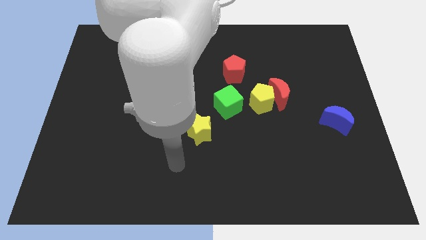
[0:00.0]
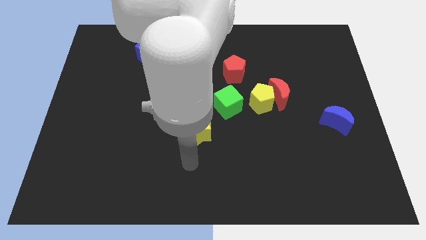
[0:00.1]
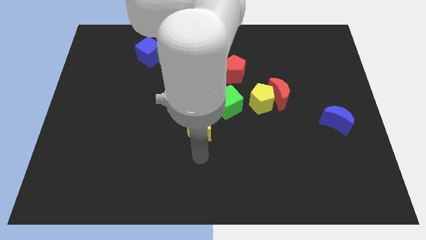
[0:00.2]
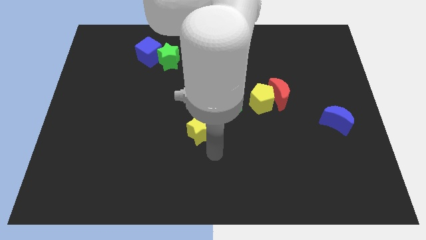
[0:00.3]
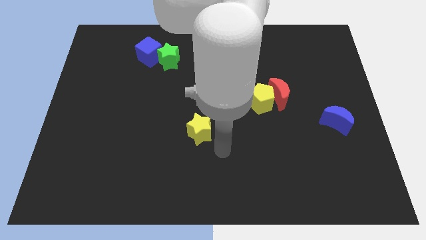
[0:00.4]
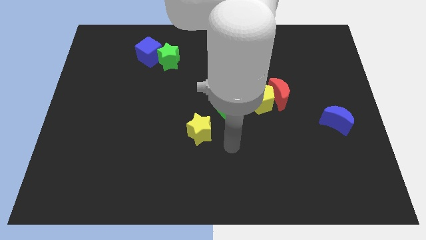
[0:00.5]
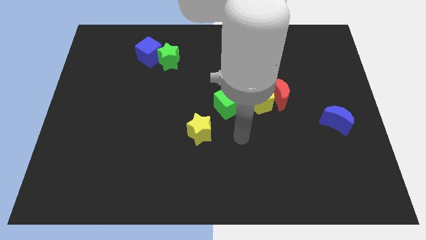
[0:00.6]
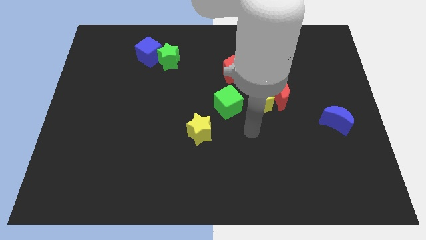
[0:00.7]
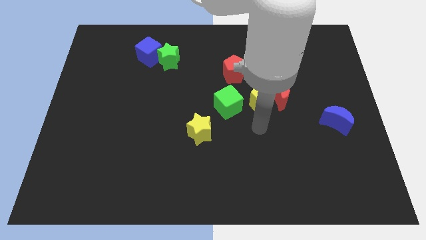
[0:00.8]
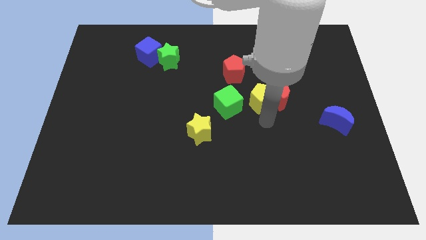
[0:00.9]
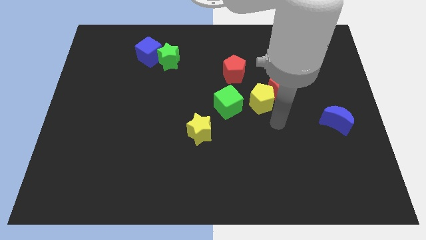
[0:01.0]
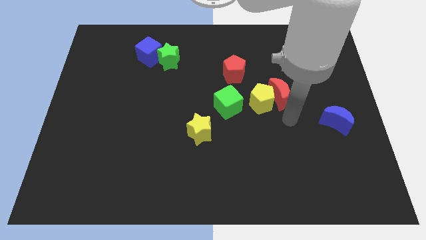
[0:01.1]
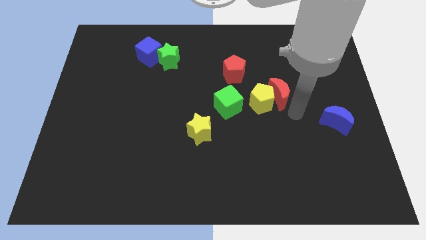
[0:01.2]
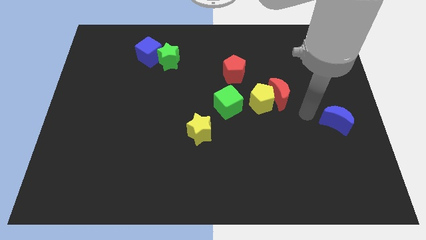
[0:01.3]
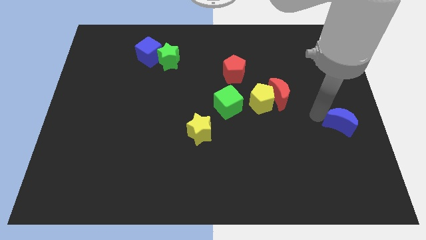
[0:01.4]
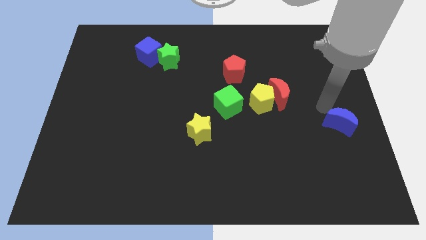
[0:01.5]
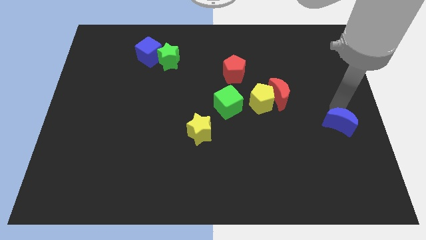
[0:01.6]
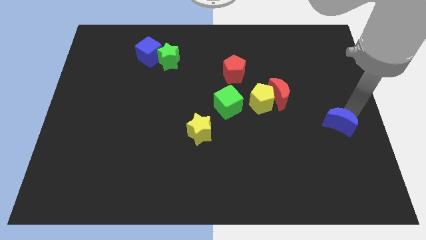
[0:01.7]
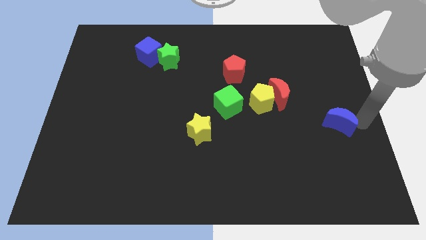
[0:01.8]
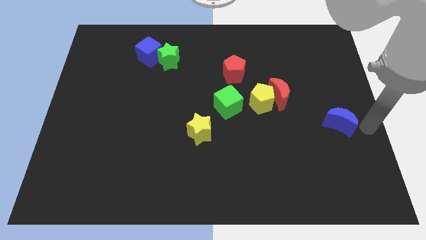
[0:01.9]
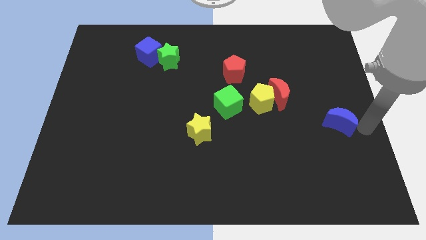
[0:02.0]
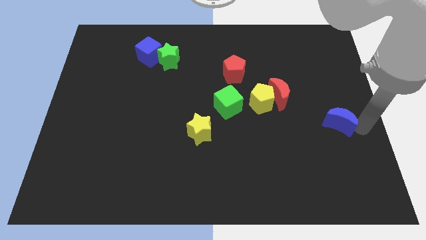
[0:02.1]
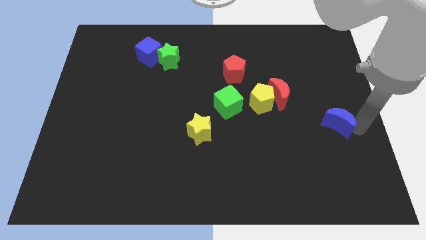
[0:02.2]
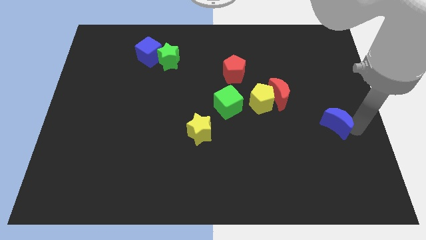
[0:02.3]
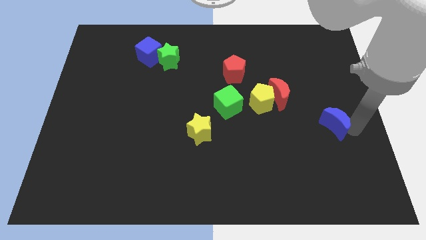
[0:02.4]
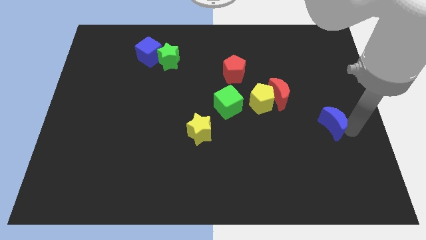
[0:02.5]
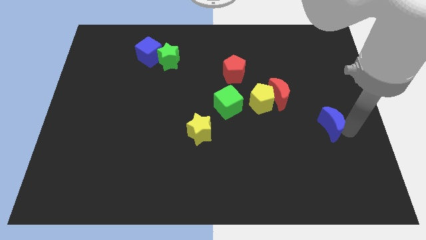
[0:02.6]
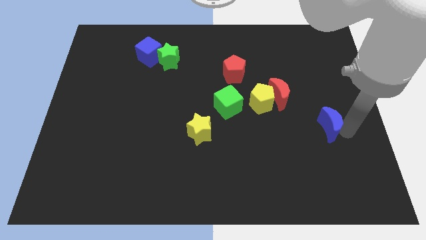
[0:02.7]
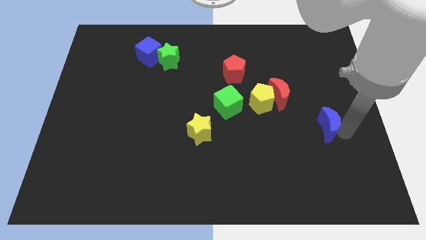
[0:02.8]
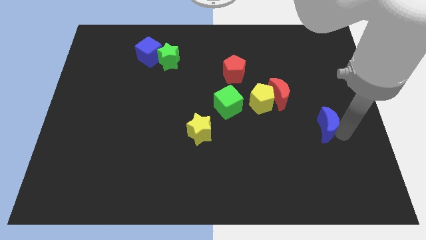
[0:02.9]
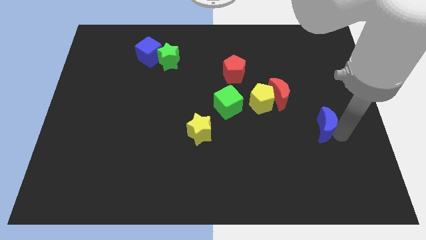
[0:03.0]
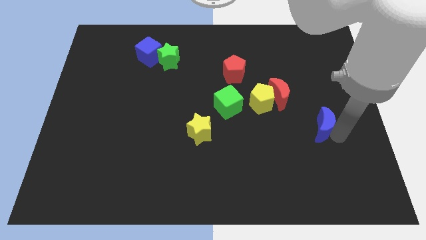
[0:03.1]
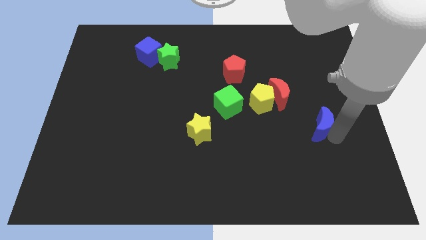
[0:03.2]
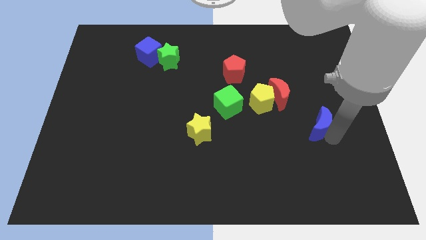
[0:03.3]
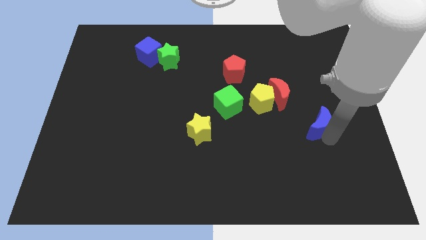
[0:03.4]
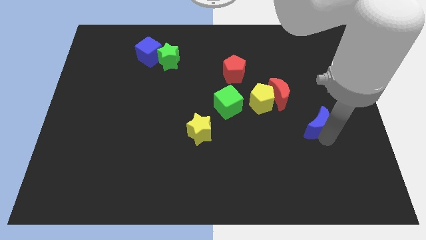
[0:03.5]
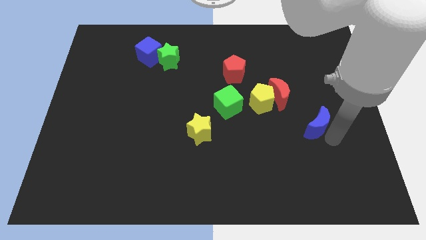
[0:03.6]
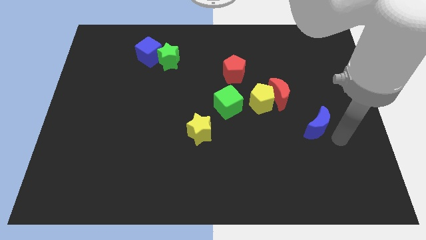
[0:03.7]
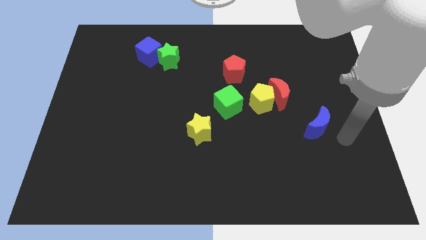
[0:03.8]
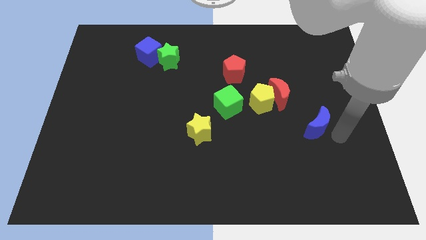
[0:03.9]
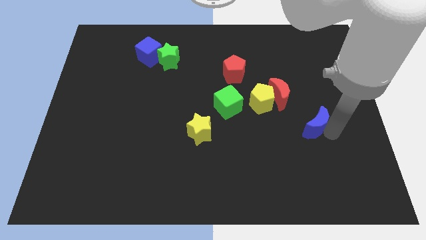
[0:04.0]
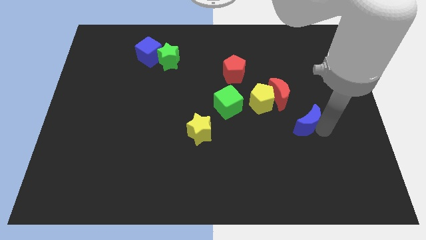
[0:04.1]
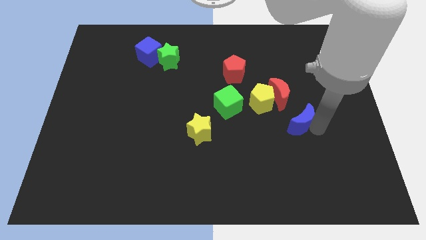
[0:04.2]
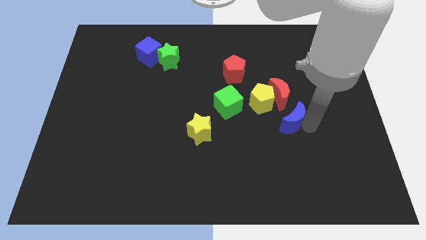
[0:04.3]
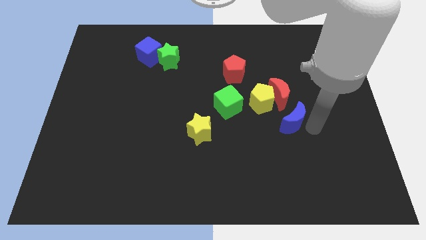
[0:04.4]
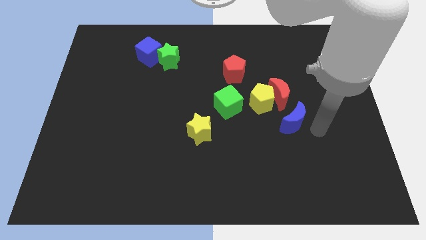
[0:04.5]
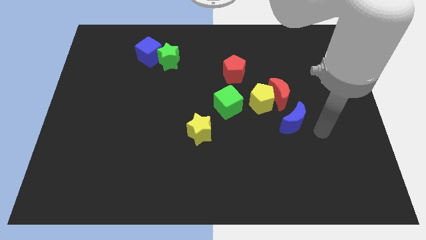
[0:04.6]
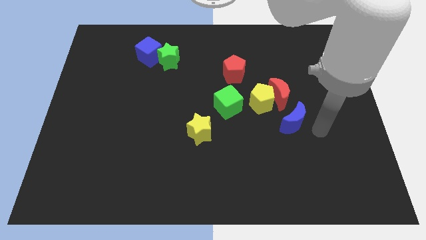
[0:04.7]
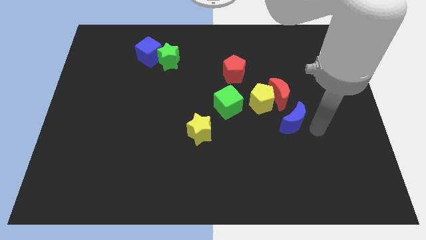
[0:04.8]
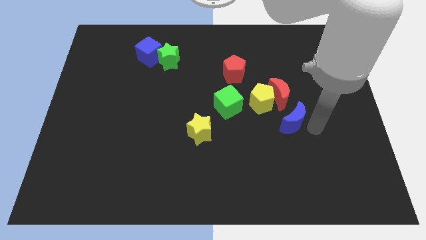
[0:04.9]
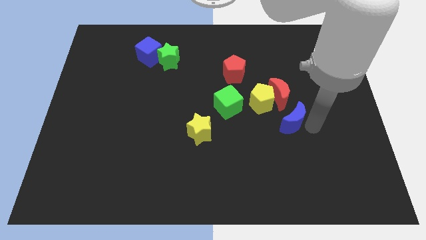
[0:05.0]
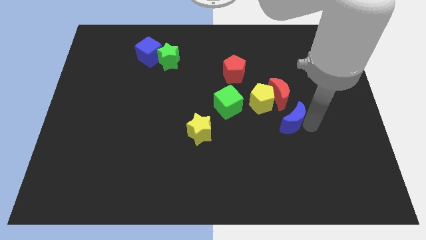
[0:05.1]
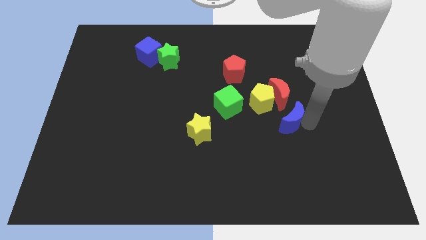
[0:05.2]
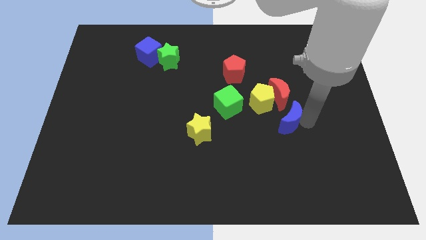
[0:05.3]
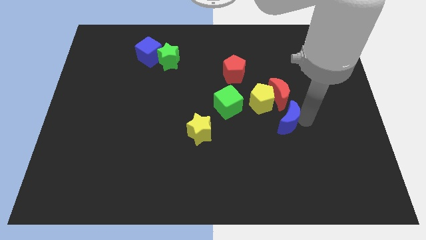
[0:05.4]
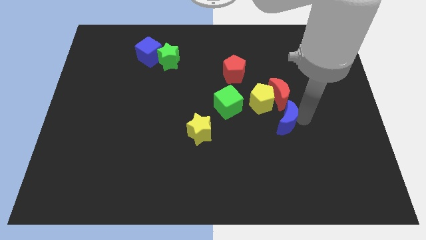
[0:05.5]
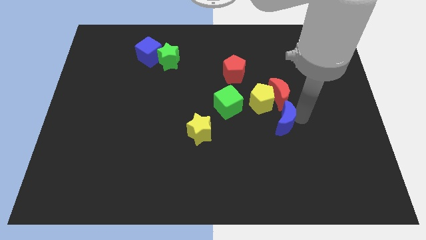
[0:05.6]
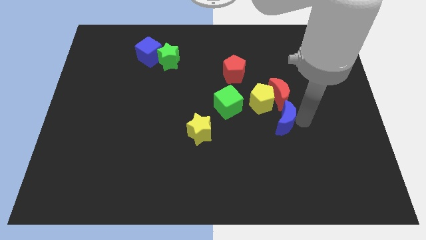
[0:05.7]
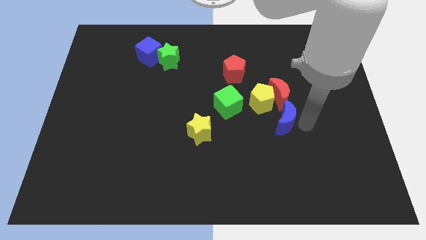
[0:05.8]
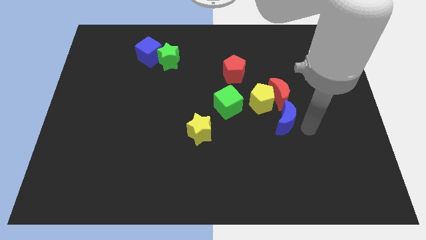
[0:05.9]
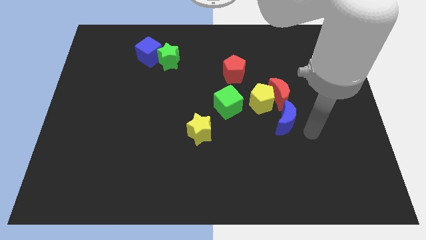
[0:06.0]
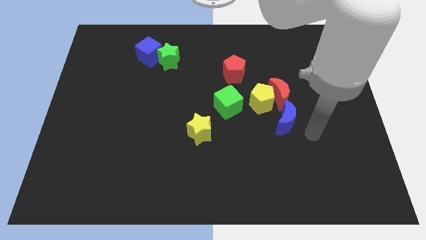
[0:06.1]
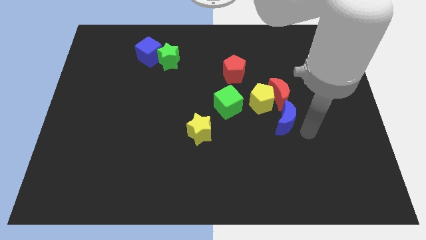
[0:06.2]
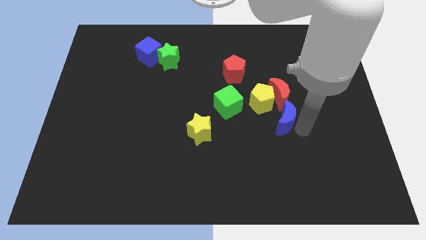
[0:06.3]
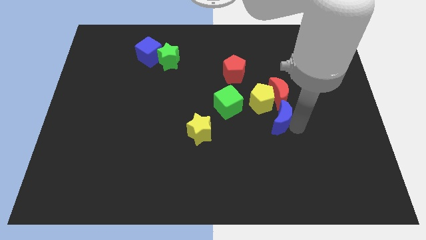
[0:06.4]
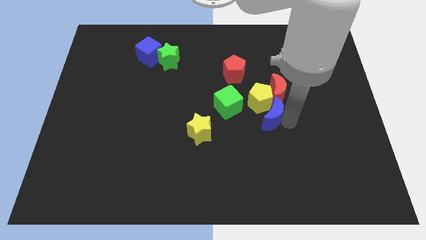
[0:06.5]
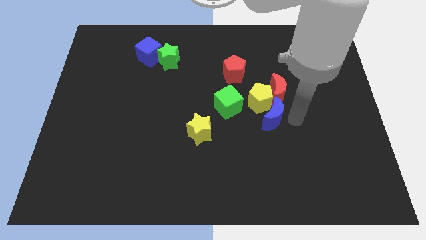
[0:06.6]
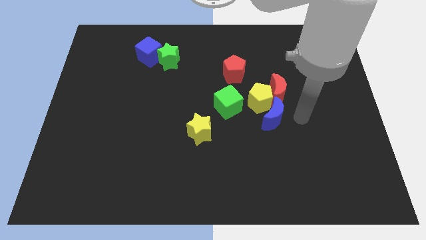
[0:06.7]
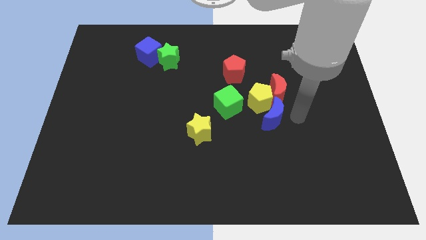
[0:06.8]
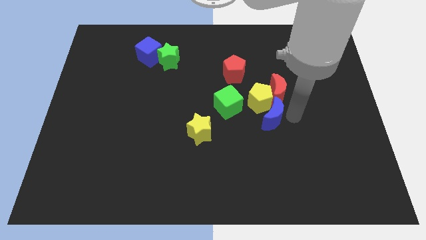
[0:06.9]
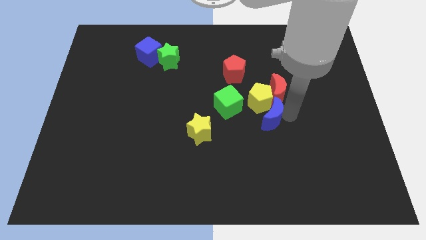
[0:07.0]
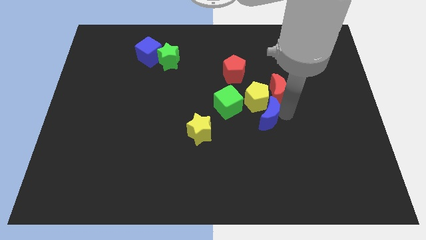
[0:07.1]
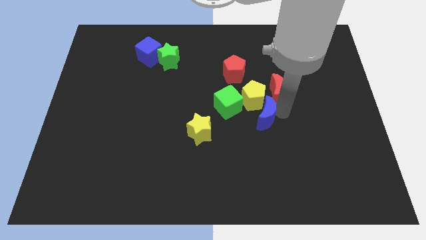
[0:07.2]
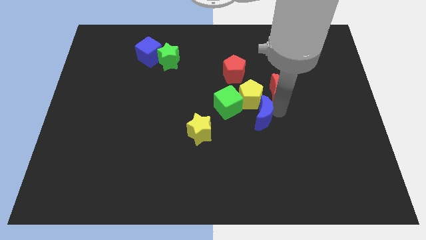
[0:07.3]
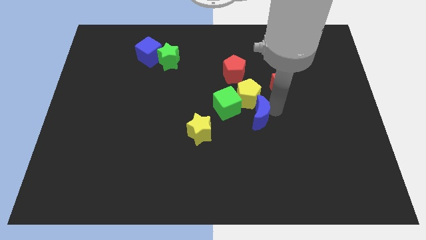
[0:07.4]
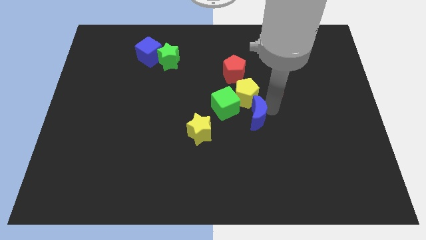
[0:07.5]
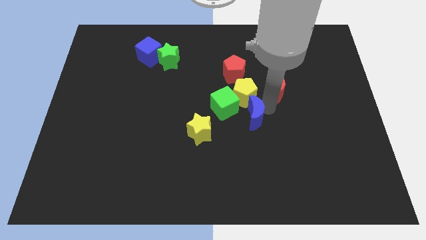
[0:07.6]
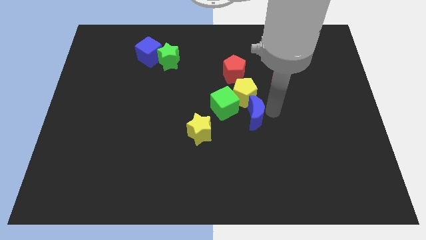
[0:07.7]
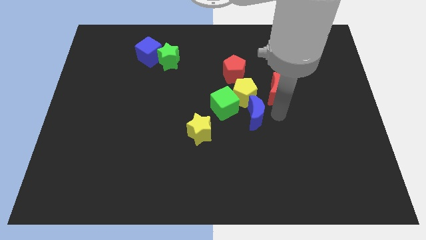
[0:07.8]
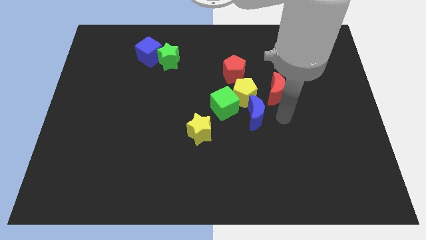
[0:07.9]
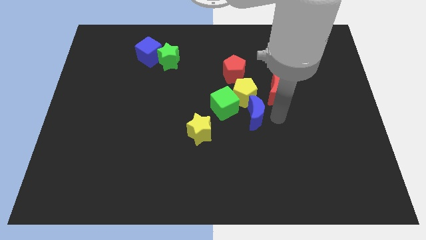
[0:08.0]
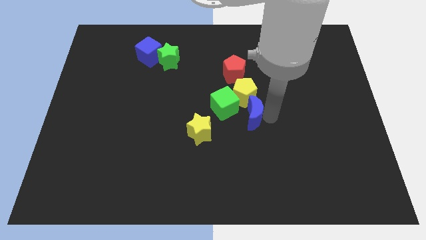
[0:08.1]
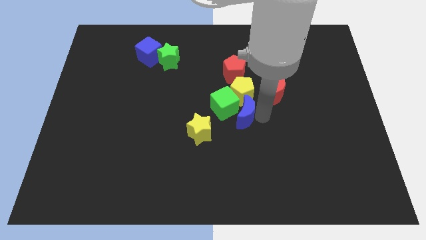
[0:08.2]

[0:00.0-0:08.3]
move the blue moon diagonally down and to the left of the yellow pentagon

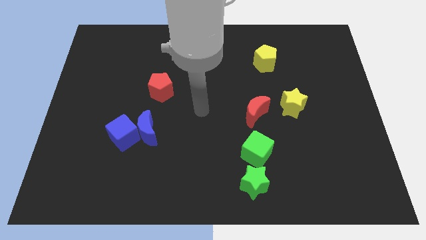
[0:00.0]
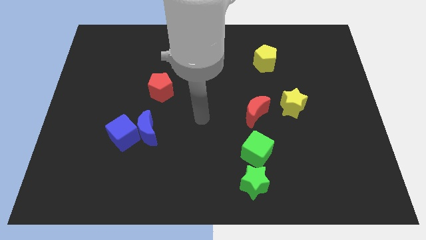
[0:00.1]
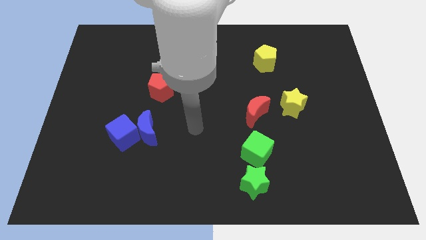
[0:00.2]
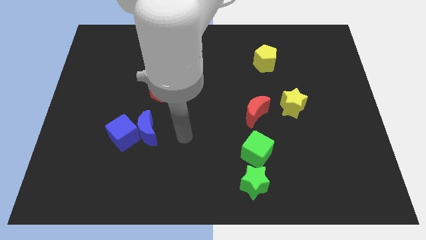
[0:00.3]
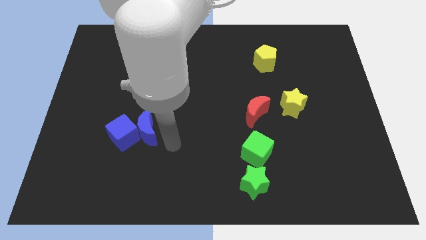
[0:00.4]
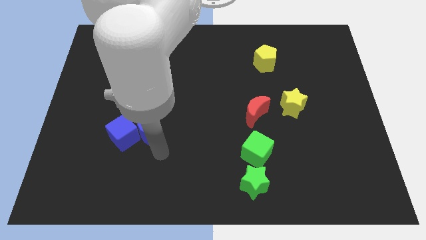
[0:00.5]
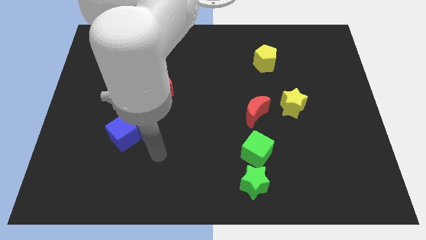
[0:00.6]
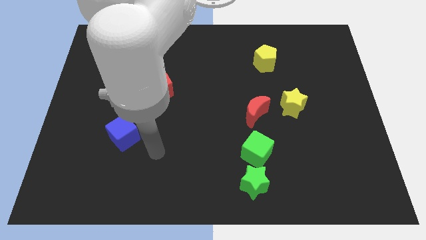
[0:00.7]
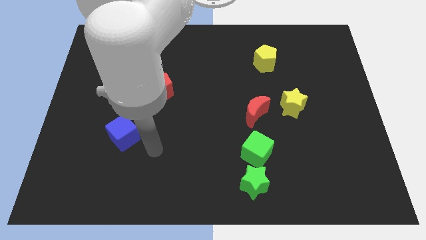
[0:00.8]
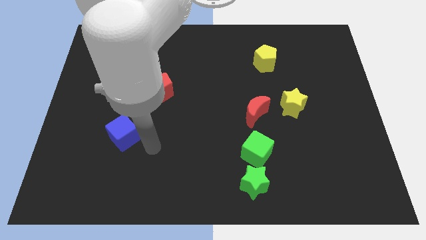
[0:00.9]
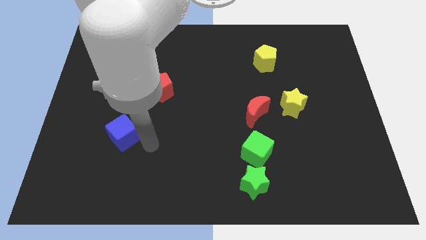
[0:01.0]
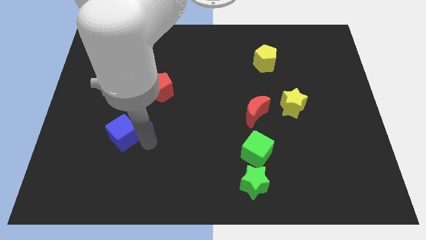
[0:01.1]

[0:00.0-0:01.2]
move the blue moon to the bottom left side of the red pentagon
